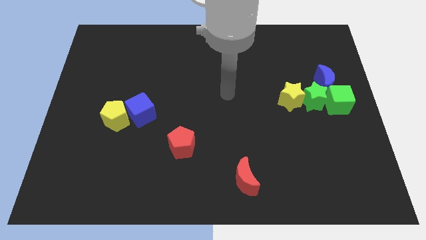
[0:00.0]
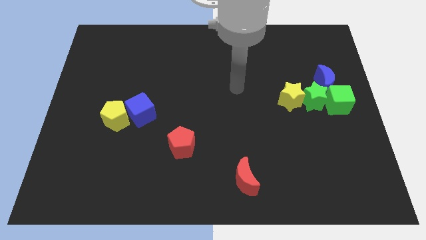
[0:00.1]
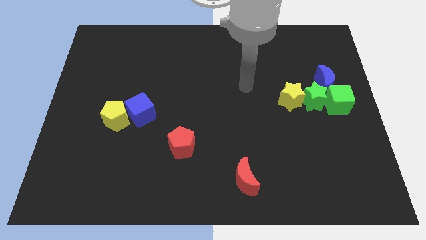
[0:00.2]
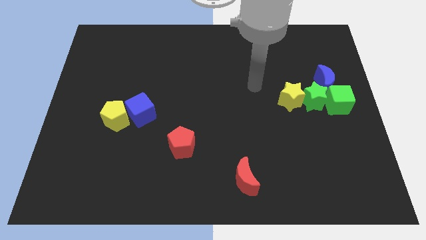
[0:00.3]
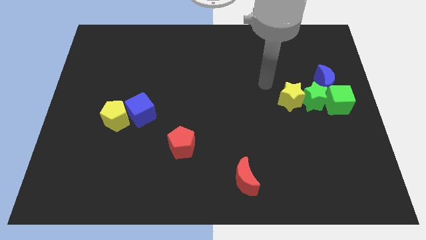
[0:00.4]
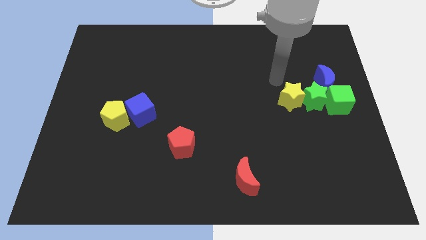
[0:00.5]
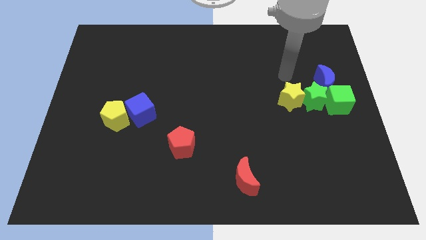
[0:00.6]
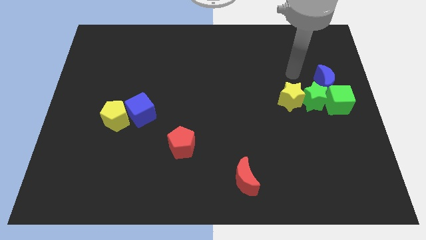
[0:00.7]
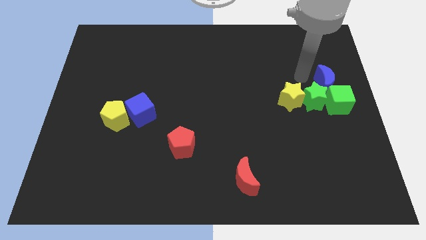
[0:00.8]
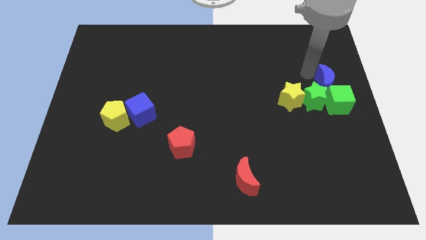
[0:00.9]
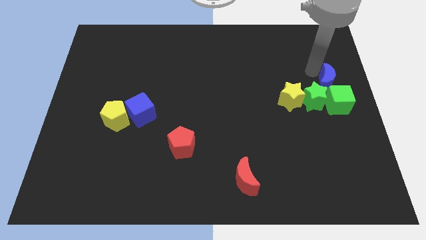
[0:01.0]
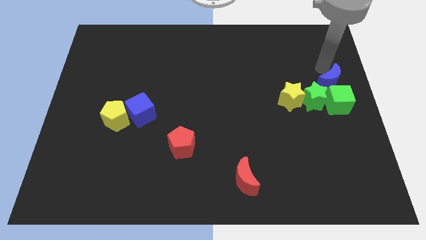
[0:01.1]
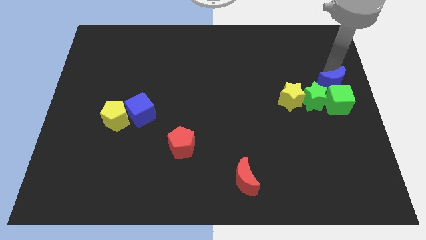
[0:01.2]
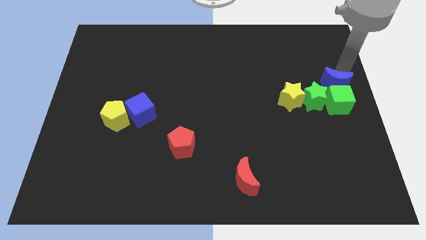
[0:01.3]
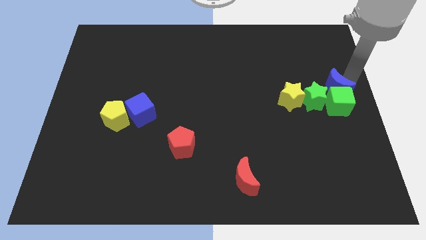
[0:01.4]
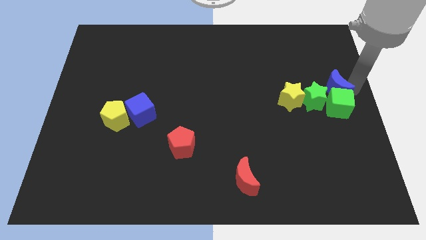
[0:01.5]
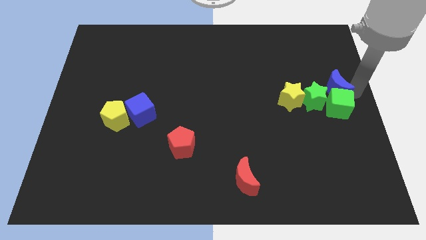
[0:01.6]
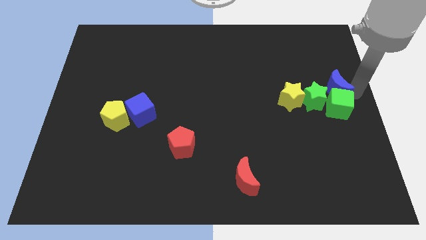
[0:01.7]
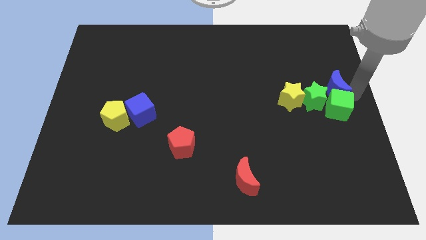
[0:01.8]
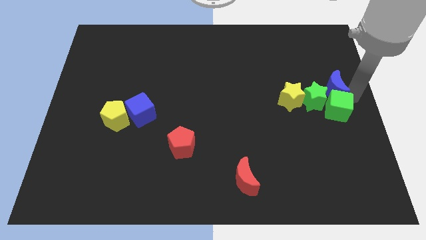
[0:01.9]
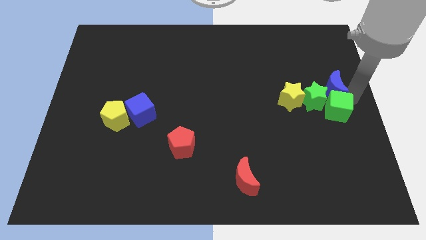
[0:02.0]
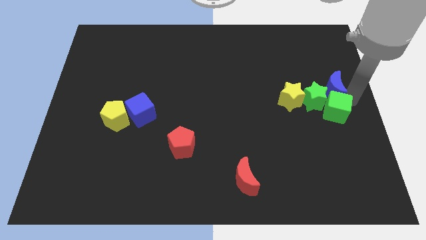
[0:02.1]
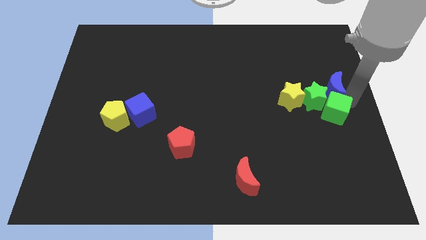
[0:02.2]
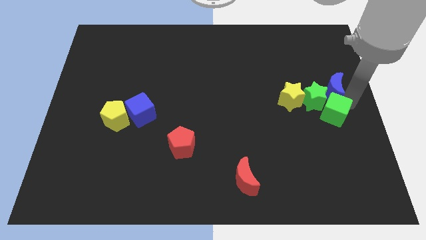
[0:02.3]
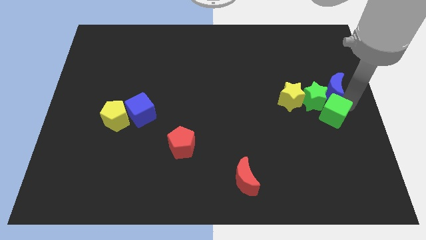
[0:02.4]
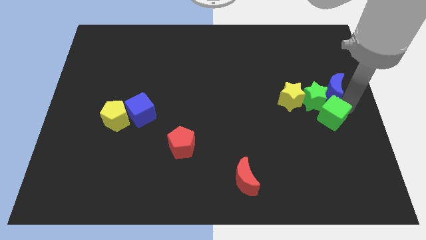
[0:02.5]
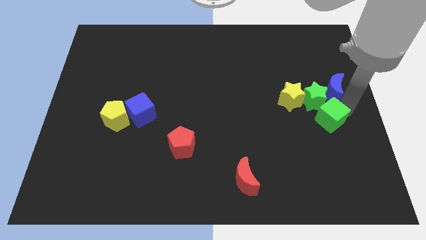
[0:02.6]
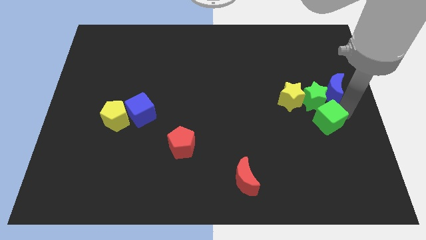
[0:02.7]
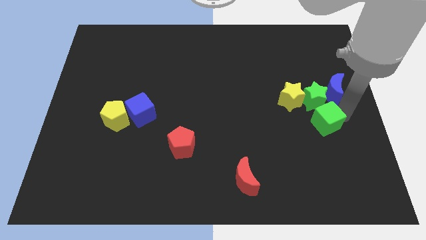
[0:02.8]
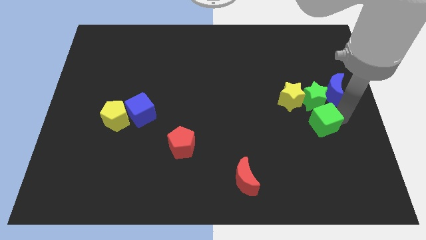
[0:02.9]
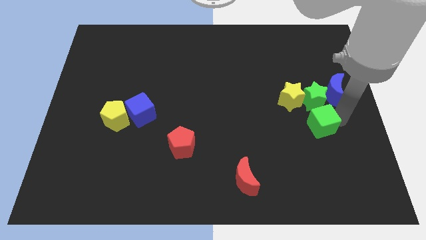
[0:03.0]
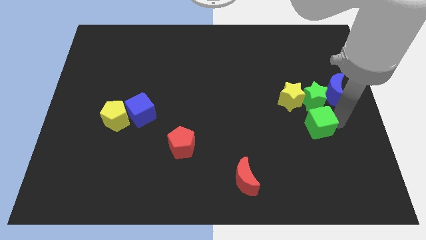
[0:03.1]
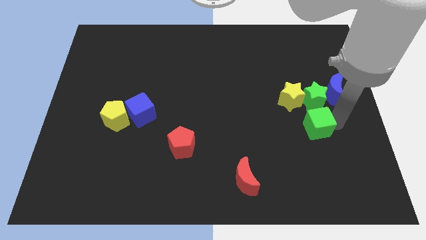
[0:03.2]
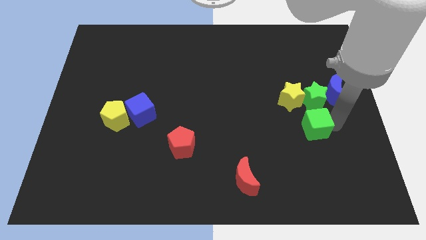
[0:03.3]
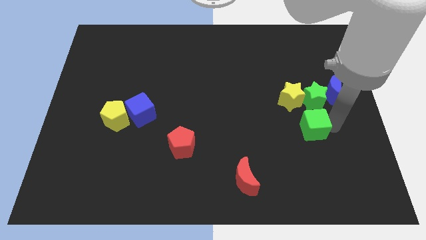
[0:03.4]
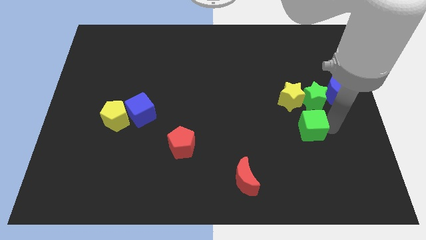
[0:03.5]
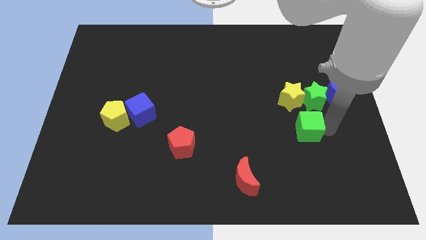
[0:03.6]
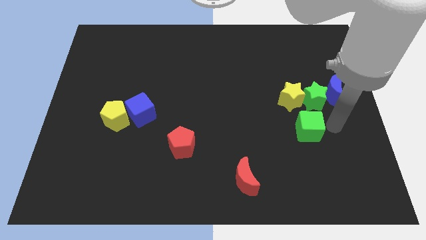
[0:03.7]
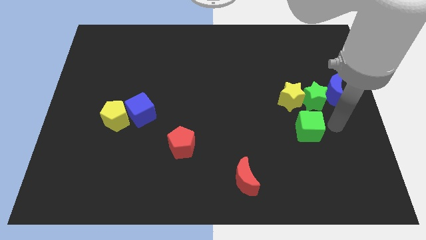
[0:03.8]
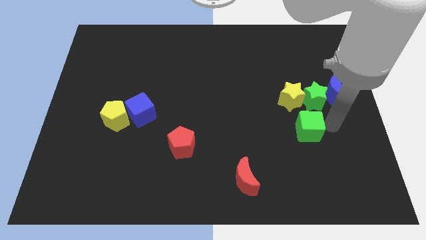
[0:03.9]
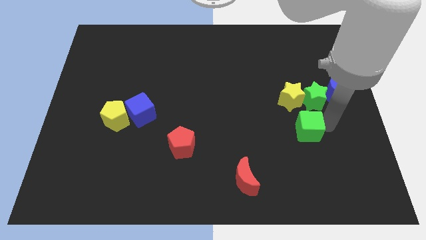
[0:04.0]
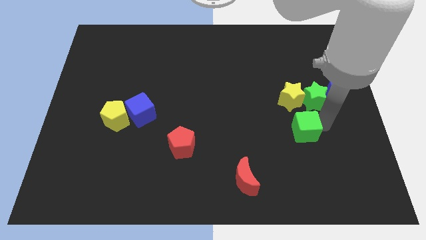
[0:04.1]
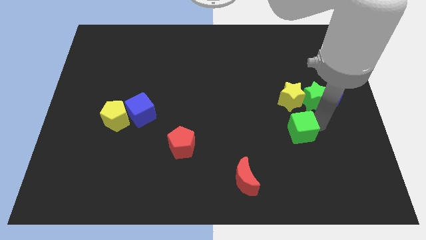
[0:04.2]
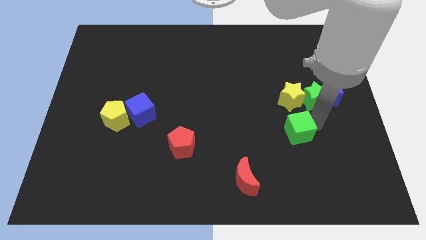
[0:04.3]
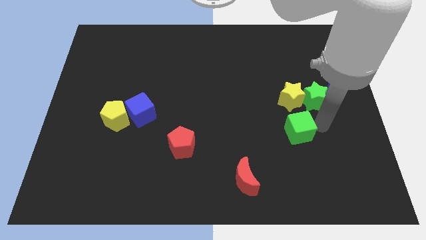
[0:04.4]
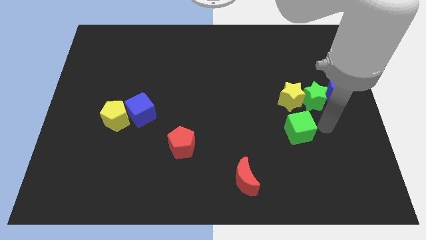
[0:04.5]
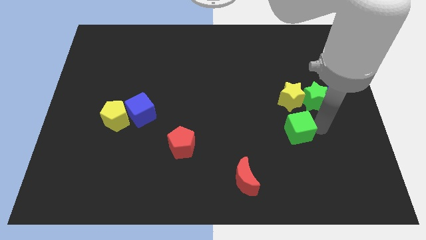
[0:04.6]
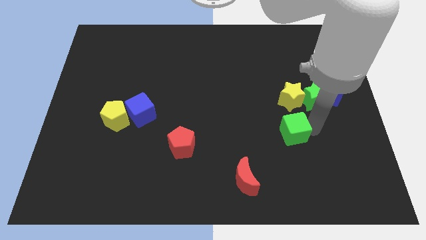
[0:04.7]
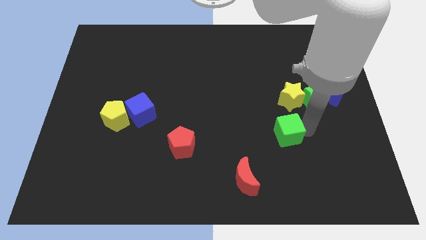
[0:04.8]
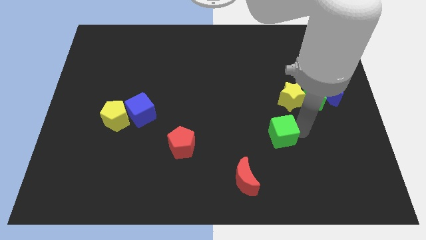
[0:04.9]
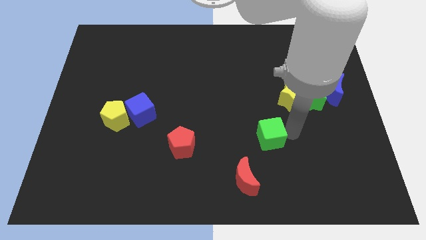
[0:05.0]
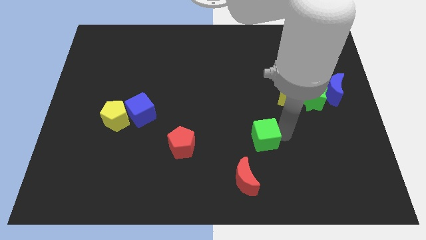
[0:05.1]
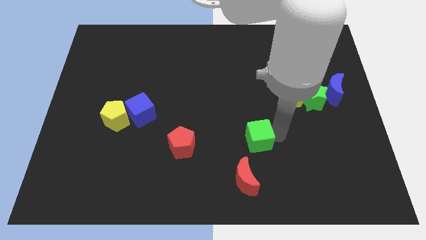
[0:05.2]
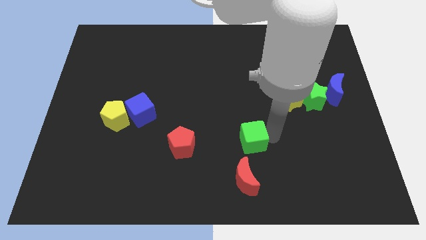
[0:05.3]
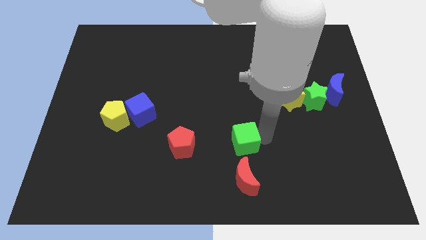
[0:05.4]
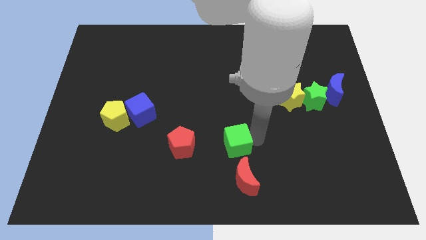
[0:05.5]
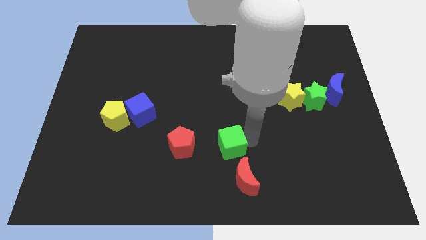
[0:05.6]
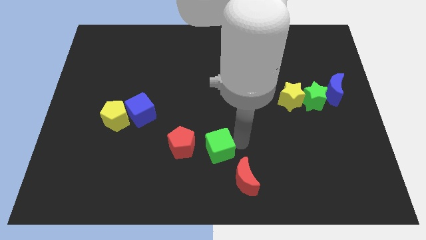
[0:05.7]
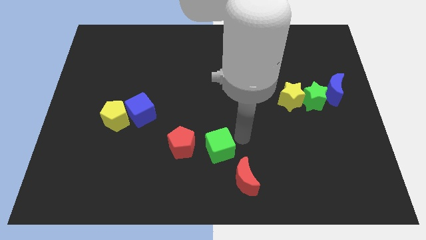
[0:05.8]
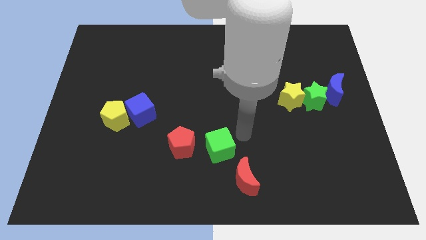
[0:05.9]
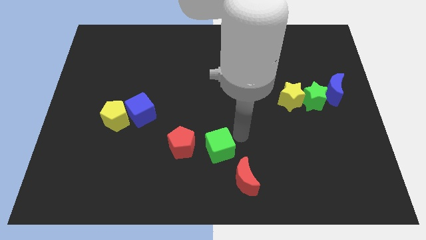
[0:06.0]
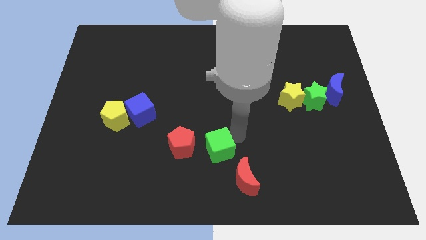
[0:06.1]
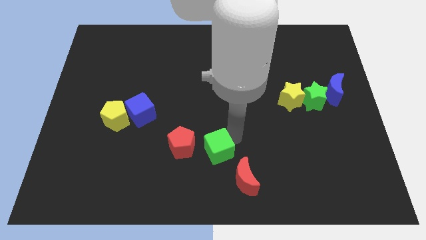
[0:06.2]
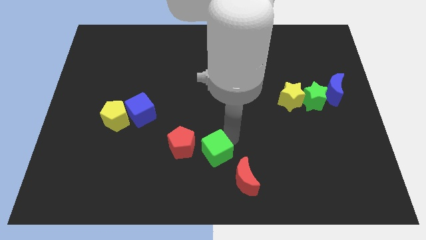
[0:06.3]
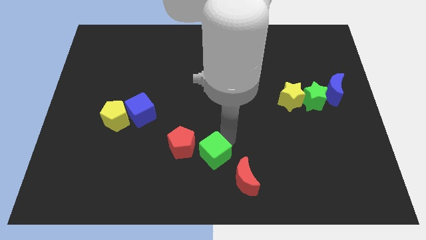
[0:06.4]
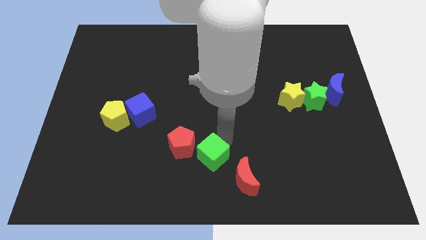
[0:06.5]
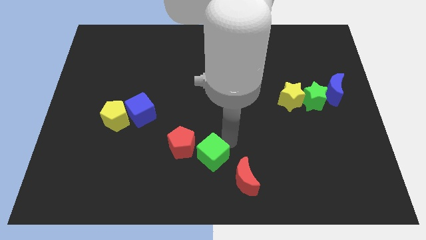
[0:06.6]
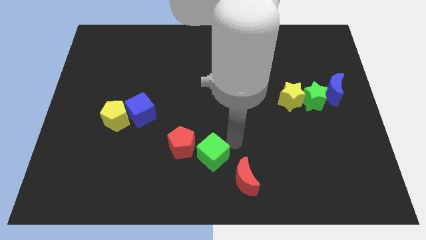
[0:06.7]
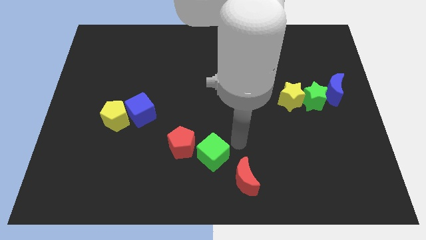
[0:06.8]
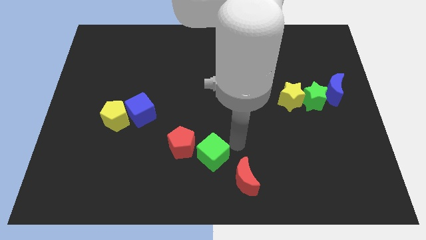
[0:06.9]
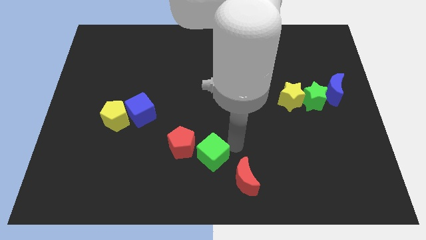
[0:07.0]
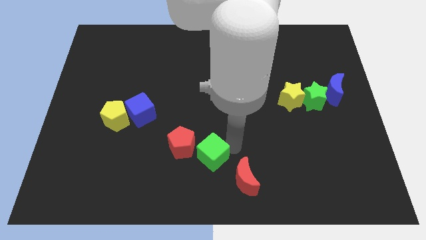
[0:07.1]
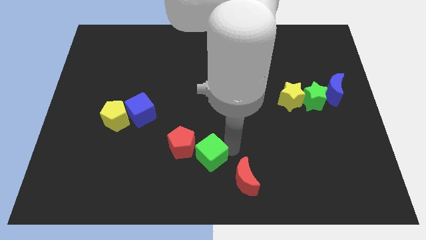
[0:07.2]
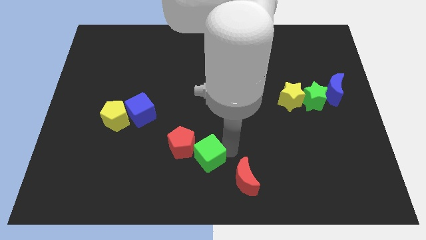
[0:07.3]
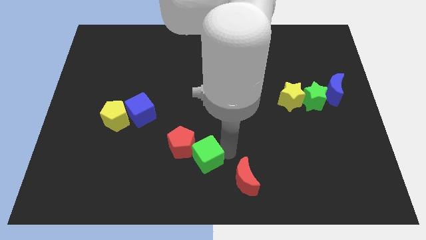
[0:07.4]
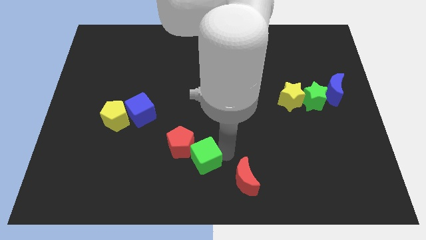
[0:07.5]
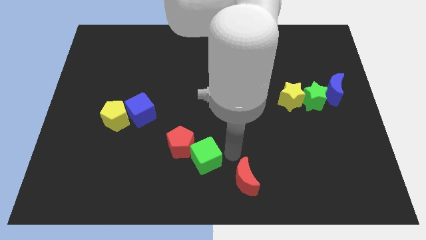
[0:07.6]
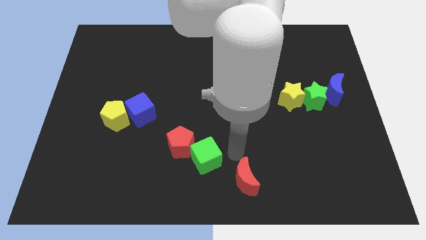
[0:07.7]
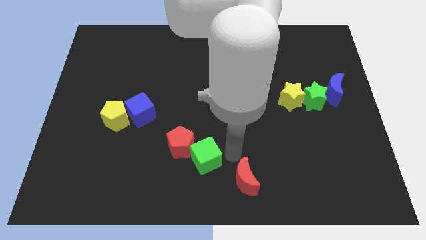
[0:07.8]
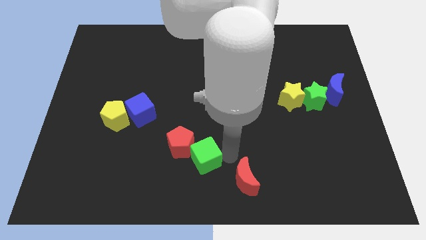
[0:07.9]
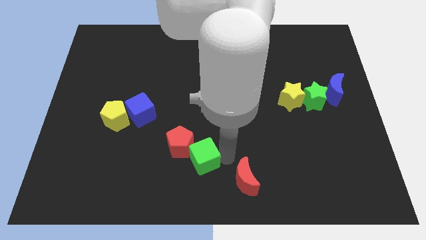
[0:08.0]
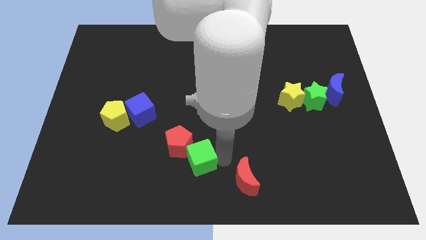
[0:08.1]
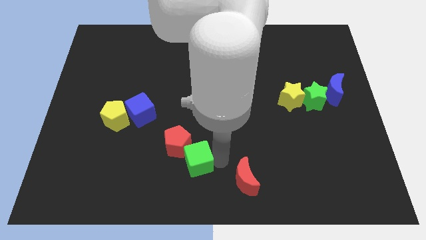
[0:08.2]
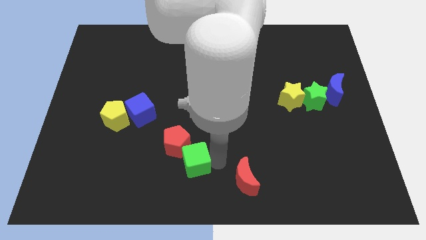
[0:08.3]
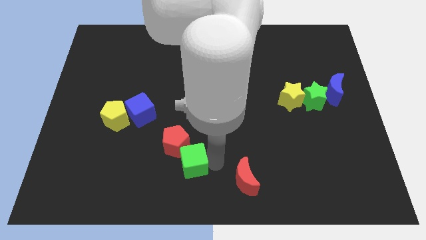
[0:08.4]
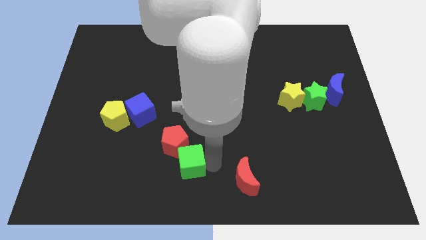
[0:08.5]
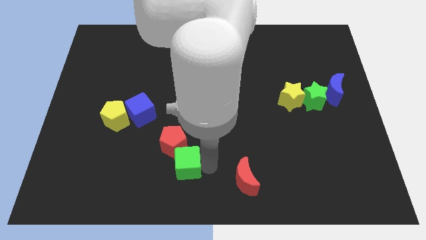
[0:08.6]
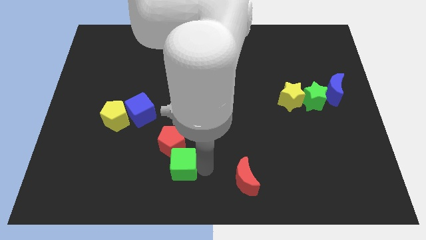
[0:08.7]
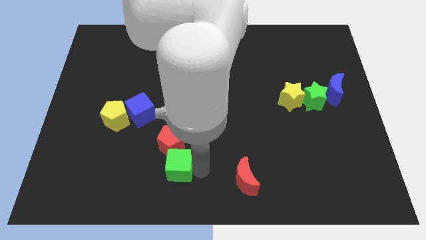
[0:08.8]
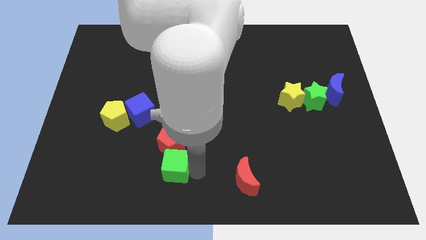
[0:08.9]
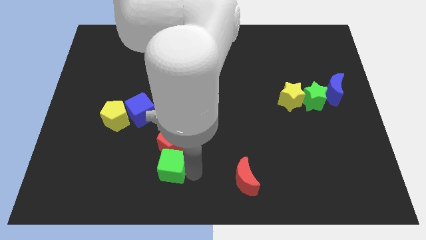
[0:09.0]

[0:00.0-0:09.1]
push the green cube diagonally down and to the left of the red pentagon
